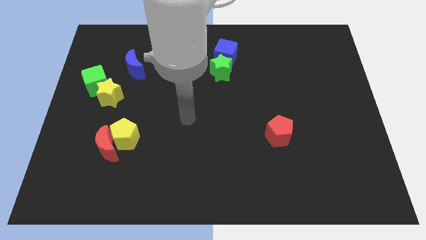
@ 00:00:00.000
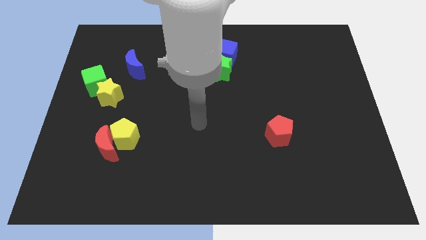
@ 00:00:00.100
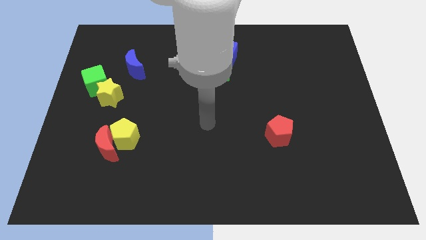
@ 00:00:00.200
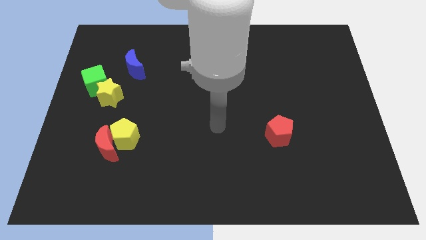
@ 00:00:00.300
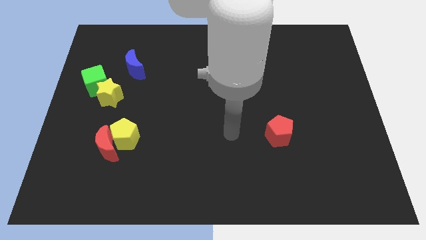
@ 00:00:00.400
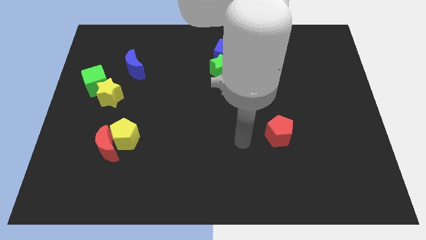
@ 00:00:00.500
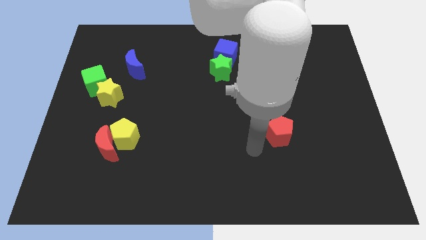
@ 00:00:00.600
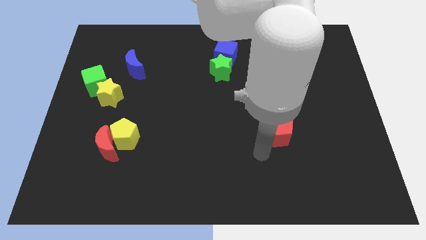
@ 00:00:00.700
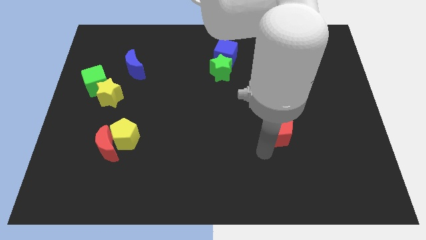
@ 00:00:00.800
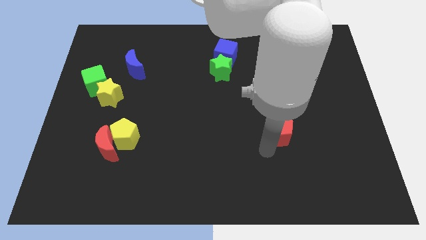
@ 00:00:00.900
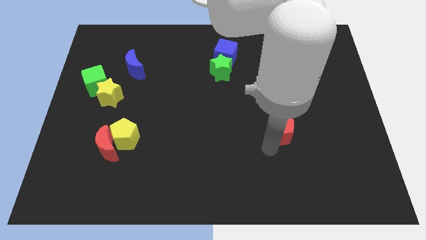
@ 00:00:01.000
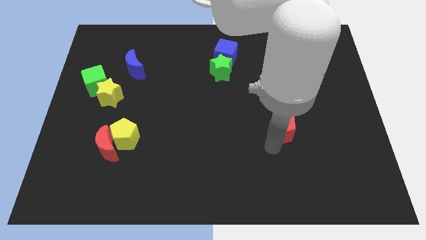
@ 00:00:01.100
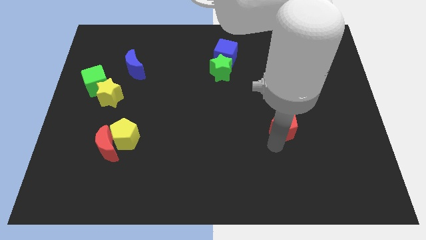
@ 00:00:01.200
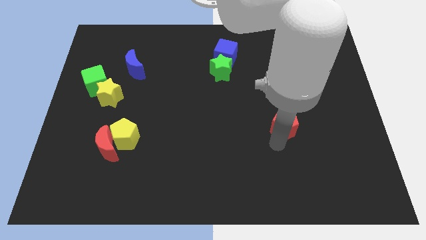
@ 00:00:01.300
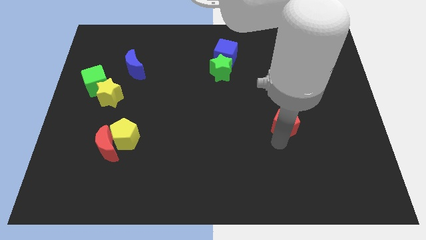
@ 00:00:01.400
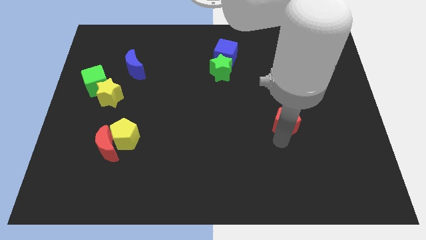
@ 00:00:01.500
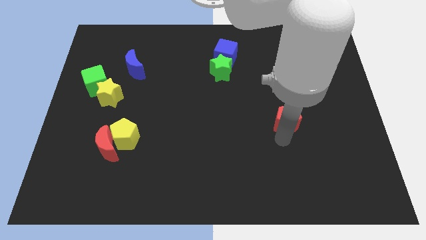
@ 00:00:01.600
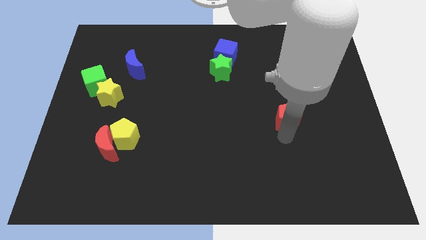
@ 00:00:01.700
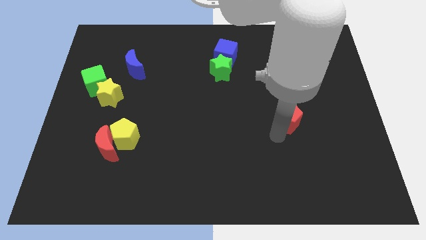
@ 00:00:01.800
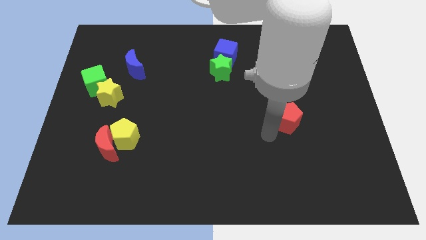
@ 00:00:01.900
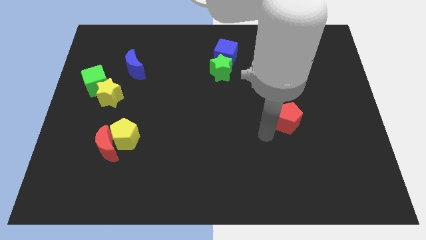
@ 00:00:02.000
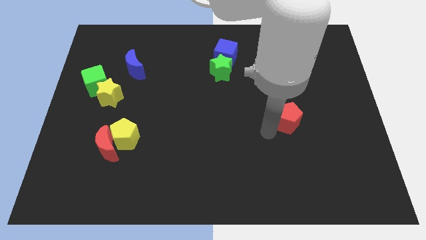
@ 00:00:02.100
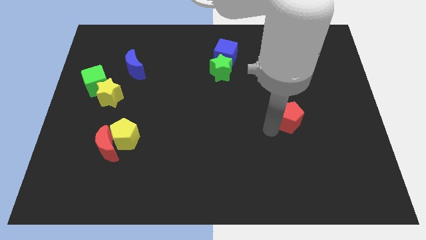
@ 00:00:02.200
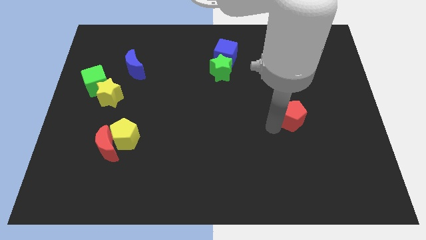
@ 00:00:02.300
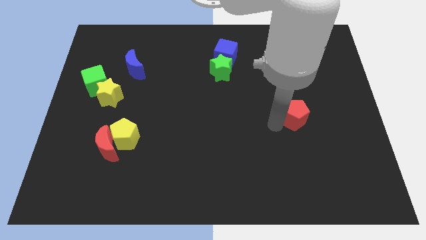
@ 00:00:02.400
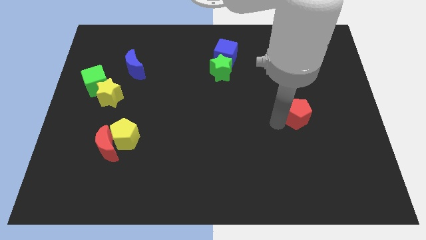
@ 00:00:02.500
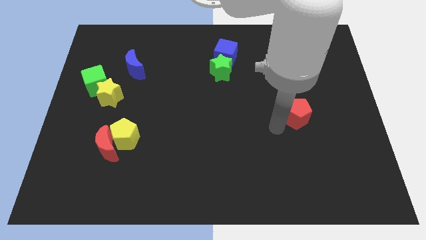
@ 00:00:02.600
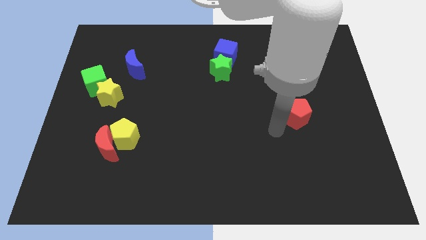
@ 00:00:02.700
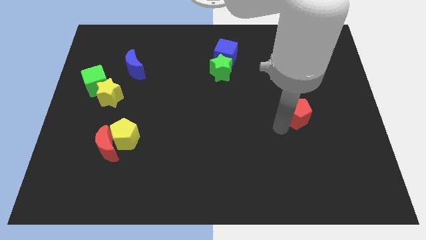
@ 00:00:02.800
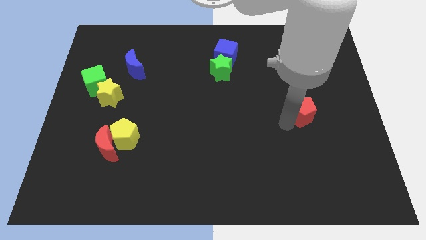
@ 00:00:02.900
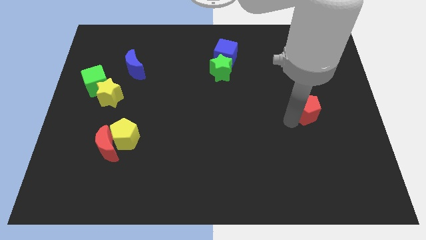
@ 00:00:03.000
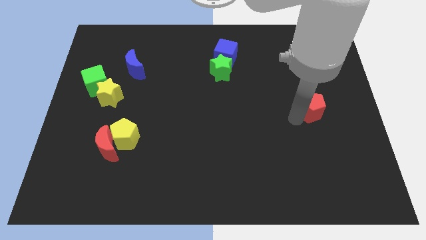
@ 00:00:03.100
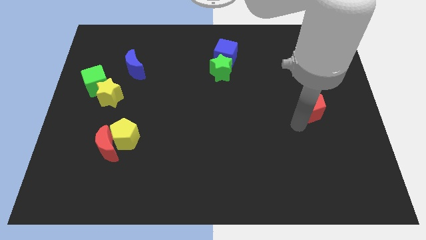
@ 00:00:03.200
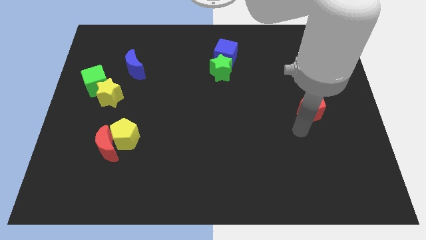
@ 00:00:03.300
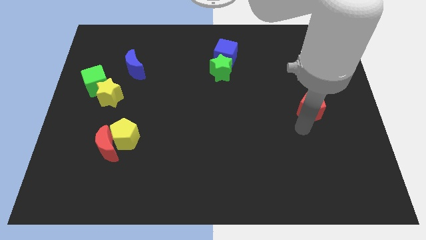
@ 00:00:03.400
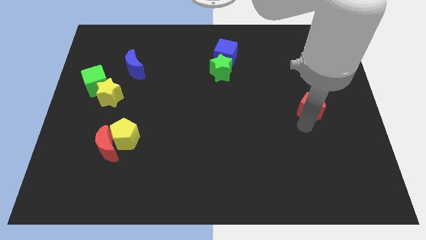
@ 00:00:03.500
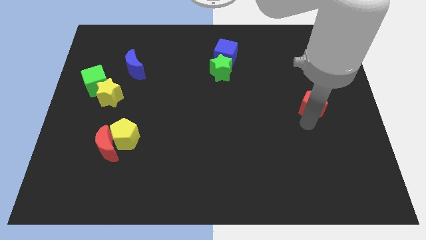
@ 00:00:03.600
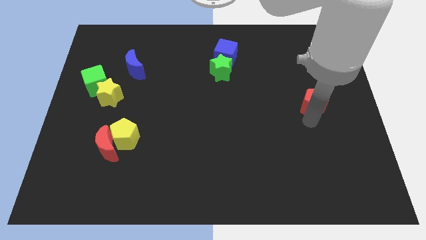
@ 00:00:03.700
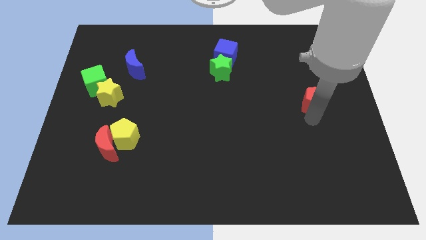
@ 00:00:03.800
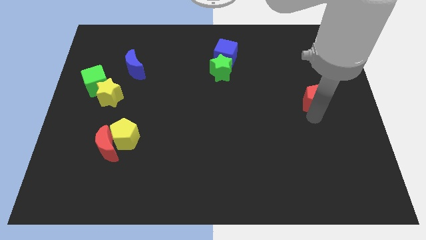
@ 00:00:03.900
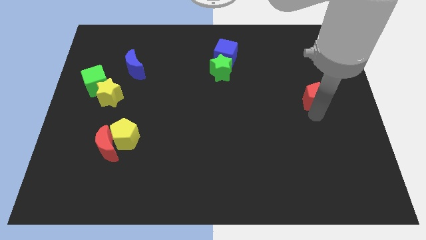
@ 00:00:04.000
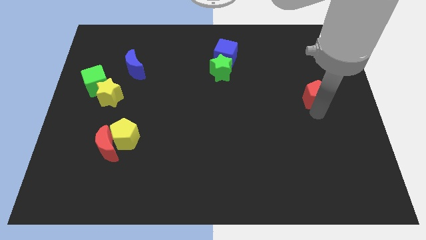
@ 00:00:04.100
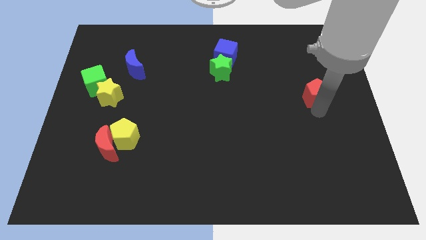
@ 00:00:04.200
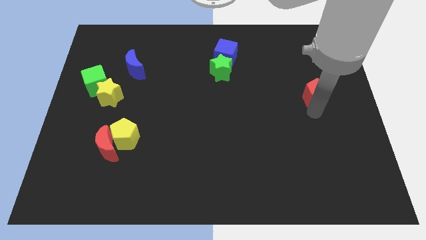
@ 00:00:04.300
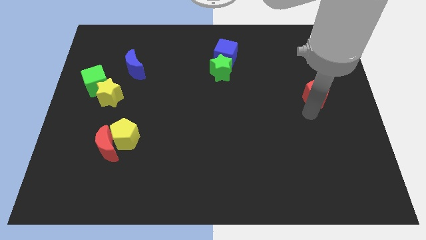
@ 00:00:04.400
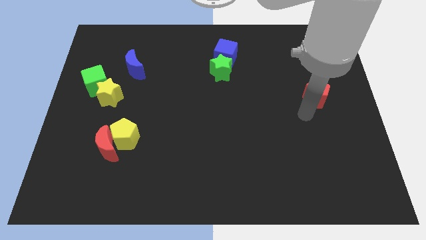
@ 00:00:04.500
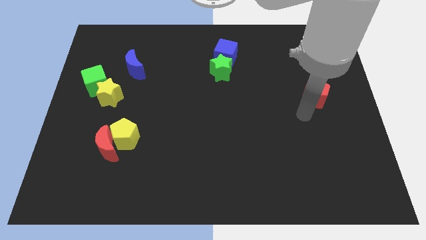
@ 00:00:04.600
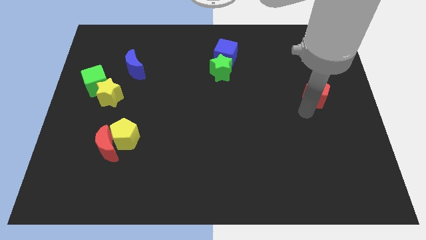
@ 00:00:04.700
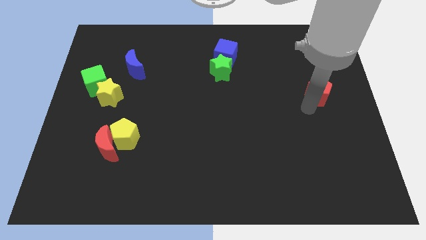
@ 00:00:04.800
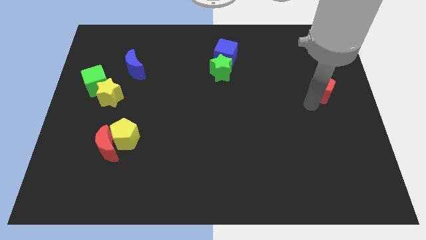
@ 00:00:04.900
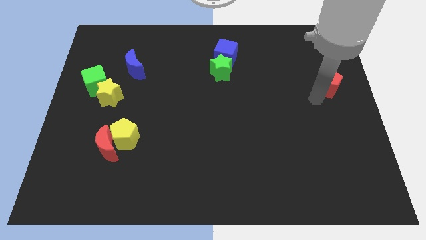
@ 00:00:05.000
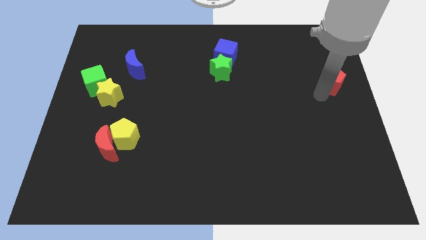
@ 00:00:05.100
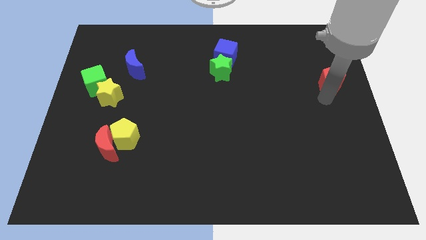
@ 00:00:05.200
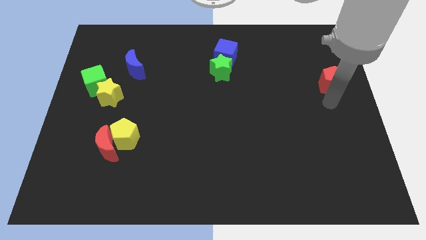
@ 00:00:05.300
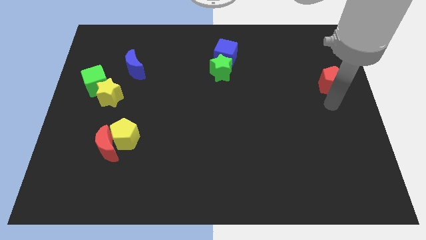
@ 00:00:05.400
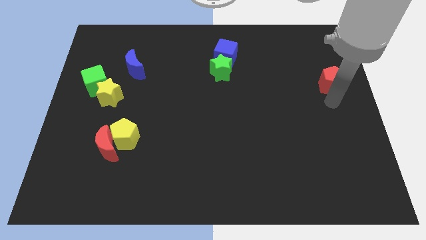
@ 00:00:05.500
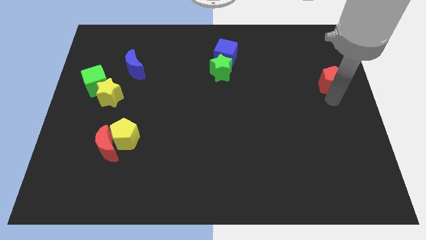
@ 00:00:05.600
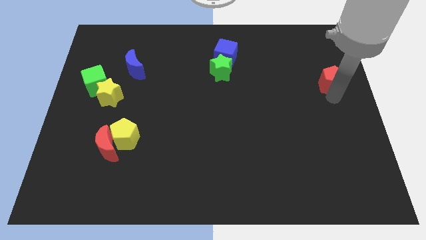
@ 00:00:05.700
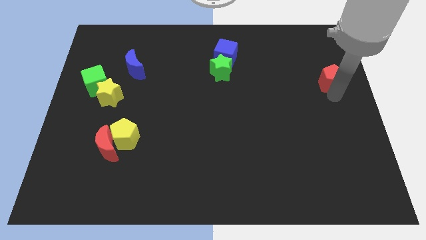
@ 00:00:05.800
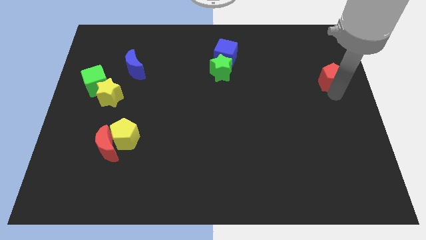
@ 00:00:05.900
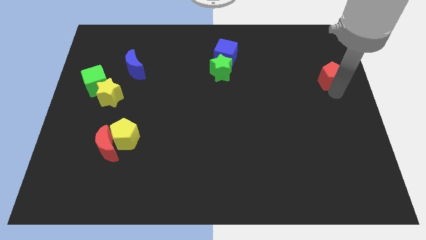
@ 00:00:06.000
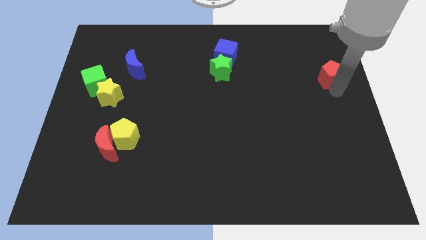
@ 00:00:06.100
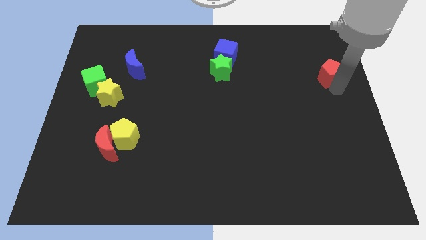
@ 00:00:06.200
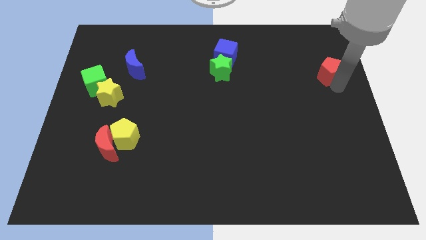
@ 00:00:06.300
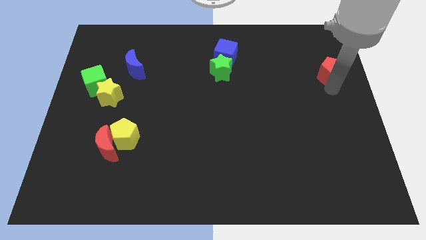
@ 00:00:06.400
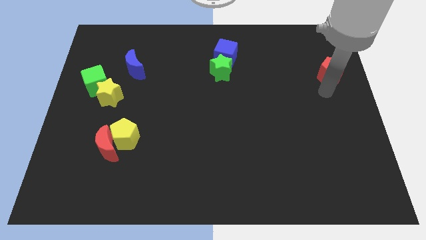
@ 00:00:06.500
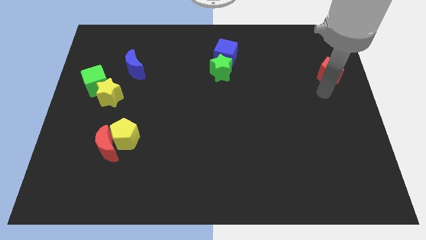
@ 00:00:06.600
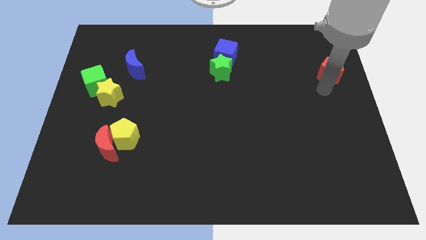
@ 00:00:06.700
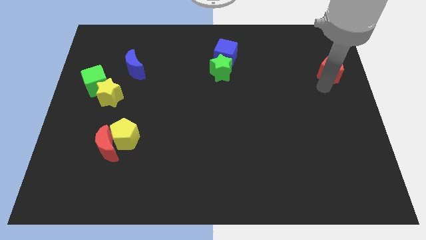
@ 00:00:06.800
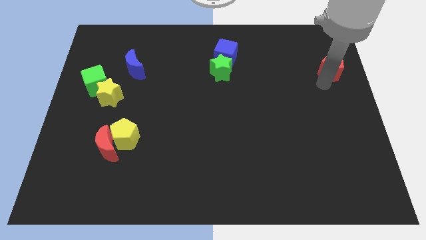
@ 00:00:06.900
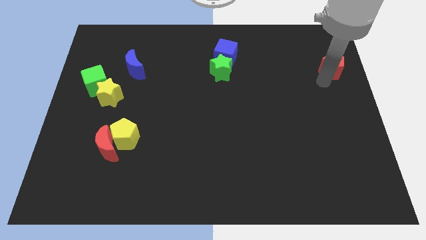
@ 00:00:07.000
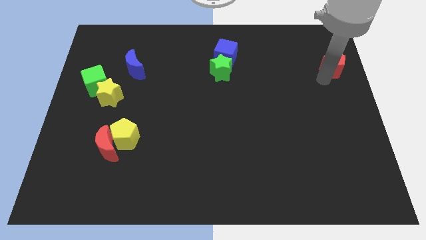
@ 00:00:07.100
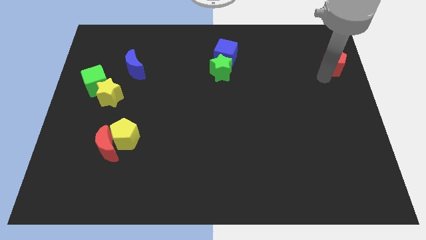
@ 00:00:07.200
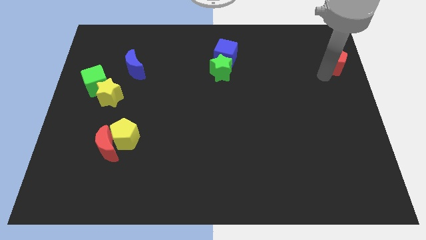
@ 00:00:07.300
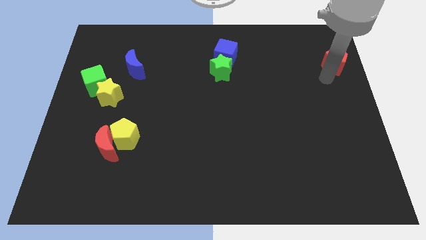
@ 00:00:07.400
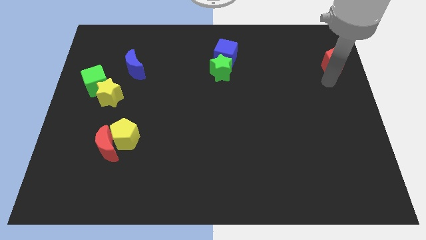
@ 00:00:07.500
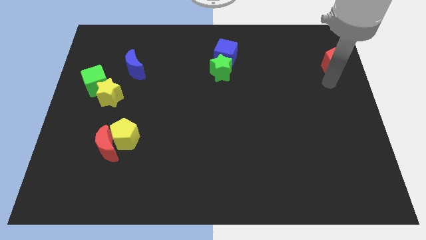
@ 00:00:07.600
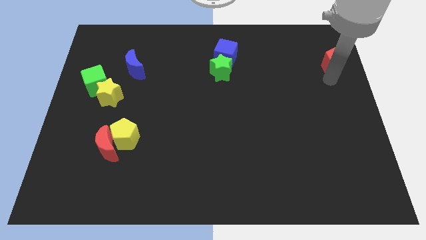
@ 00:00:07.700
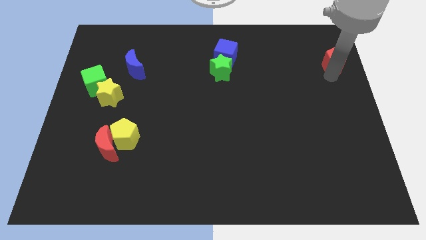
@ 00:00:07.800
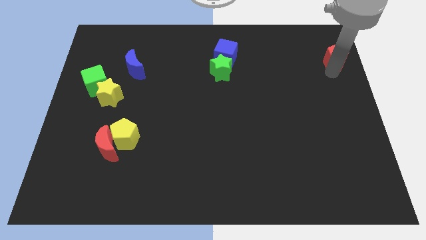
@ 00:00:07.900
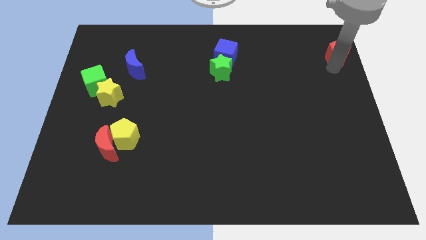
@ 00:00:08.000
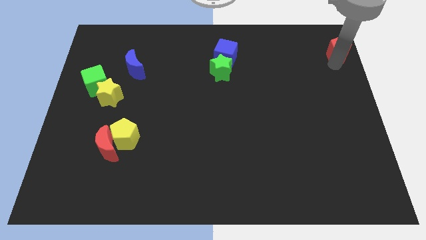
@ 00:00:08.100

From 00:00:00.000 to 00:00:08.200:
push the red pentagon to the top right of the board
